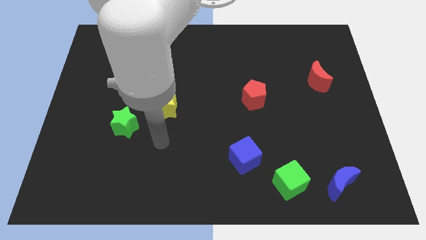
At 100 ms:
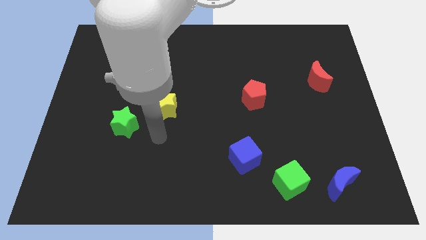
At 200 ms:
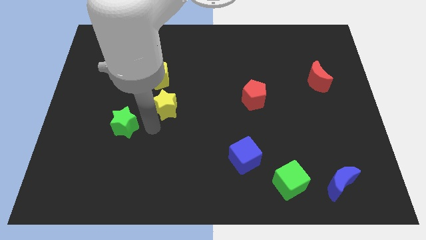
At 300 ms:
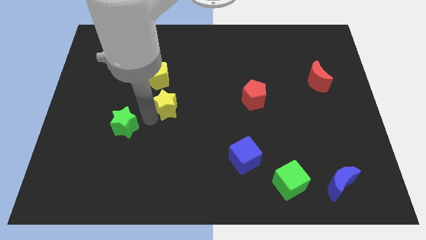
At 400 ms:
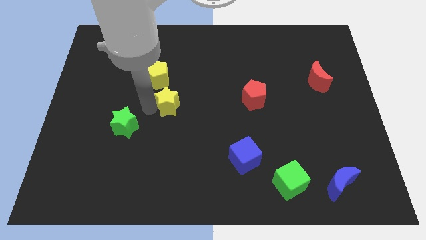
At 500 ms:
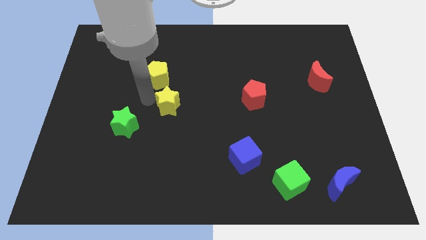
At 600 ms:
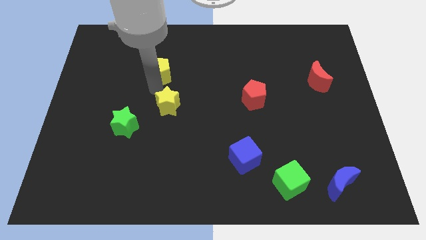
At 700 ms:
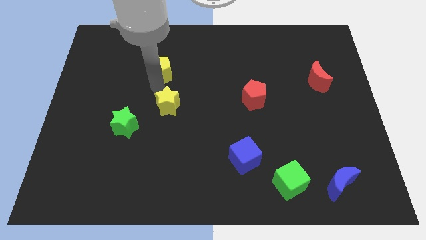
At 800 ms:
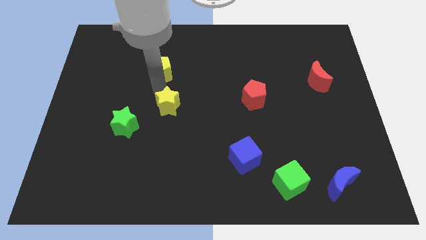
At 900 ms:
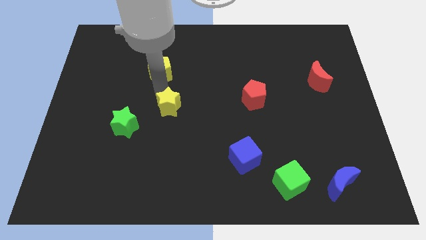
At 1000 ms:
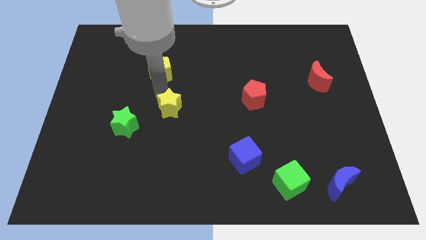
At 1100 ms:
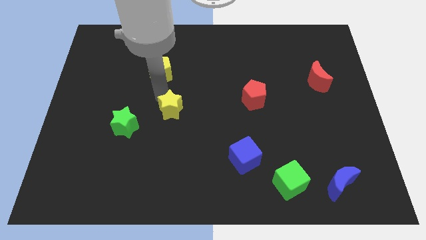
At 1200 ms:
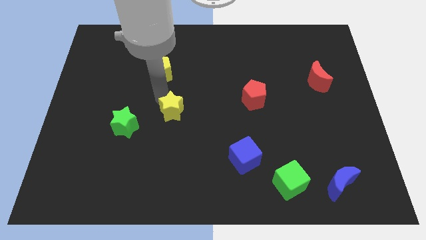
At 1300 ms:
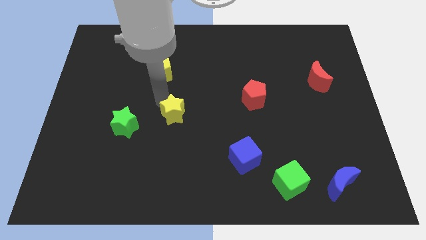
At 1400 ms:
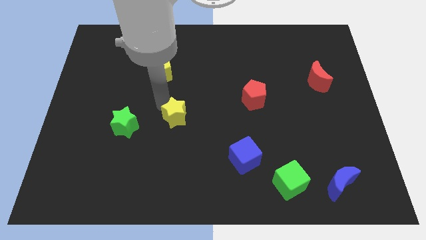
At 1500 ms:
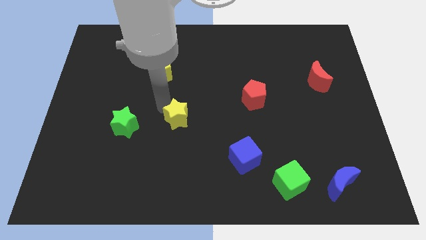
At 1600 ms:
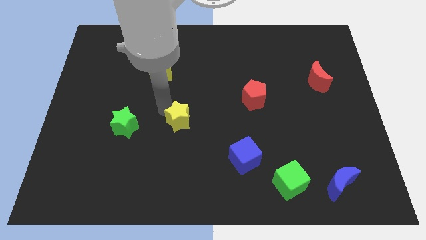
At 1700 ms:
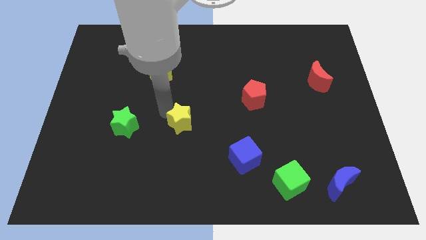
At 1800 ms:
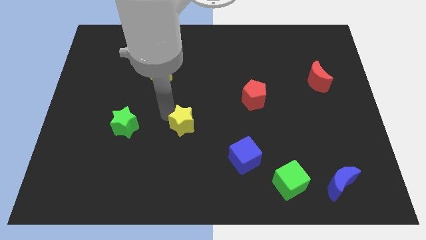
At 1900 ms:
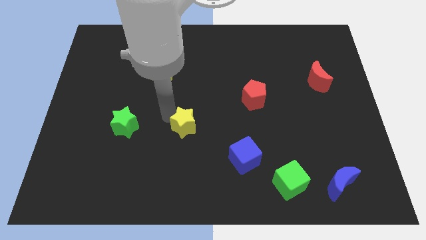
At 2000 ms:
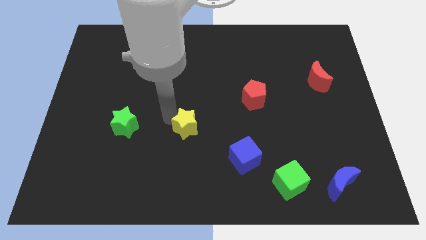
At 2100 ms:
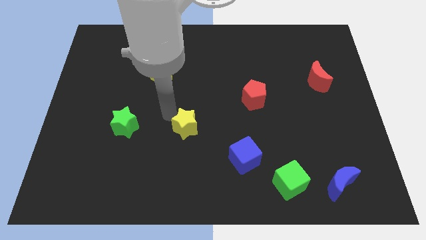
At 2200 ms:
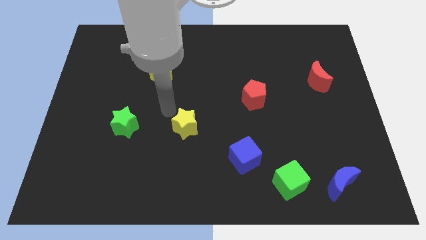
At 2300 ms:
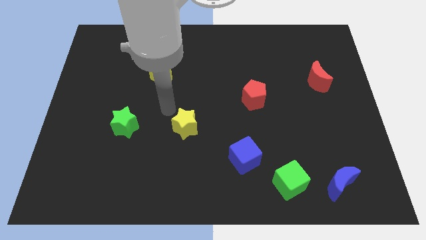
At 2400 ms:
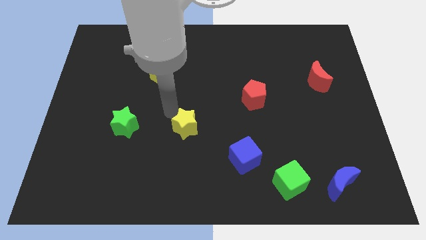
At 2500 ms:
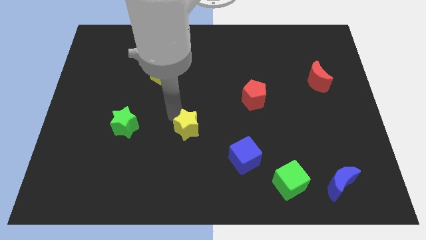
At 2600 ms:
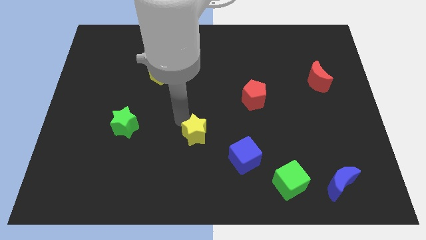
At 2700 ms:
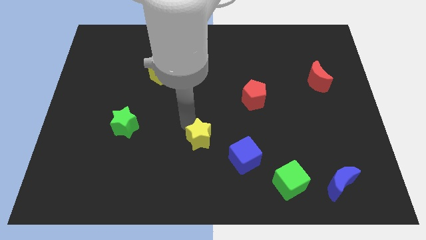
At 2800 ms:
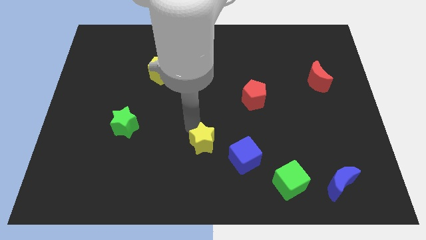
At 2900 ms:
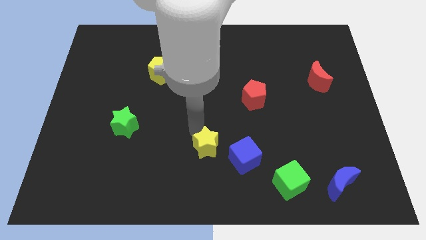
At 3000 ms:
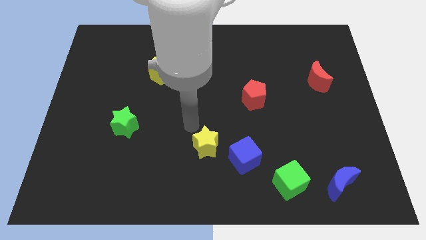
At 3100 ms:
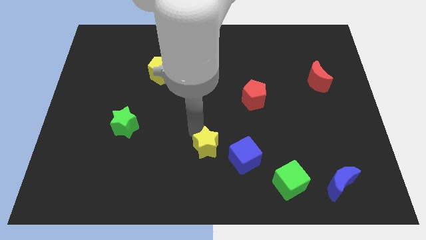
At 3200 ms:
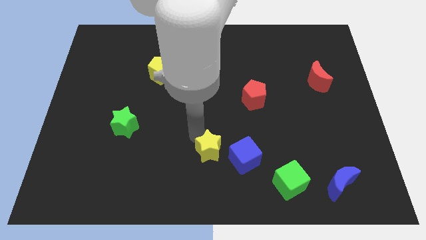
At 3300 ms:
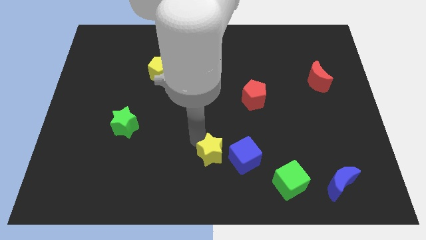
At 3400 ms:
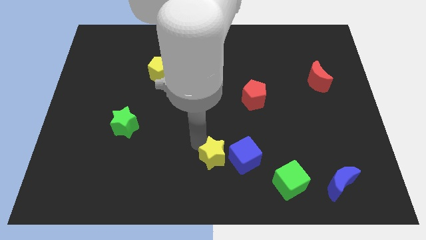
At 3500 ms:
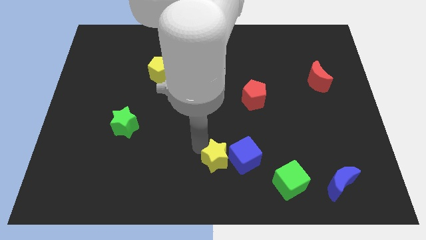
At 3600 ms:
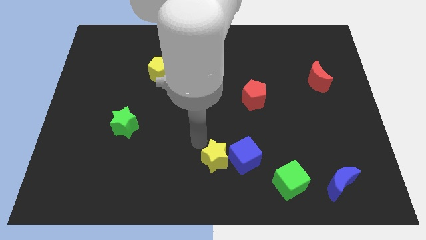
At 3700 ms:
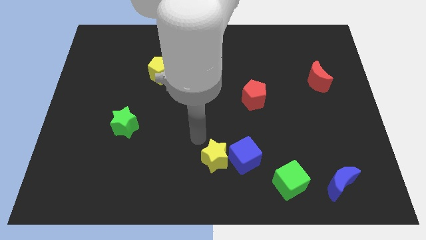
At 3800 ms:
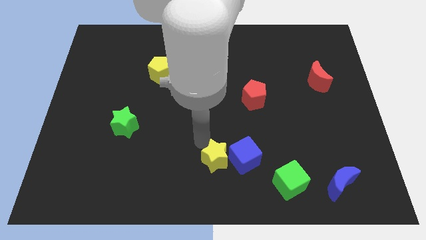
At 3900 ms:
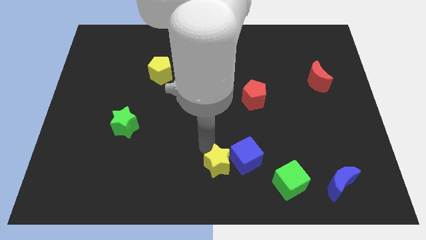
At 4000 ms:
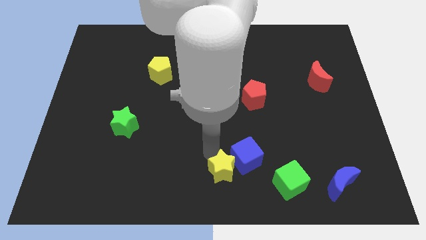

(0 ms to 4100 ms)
put the yellow star left of the green cube

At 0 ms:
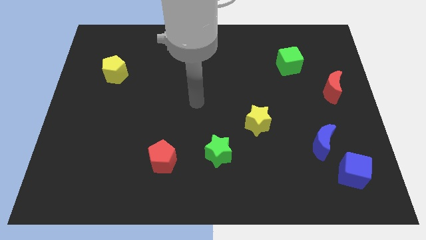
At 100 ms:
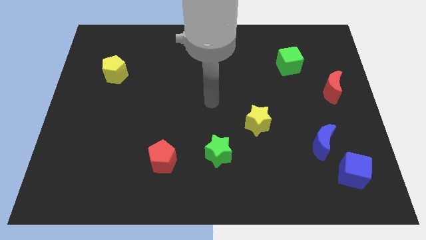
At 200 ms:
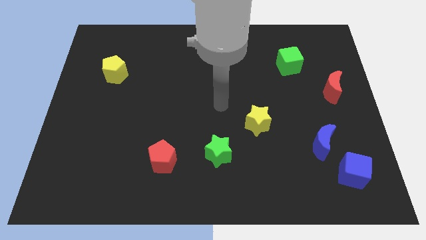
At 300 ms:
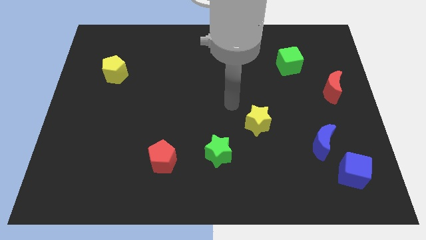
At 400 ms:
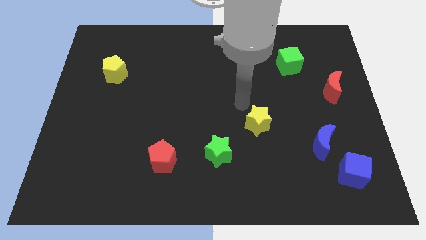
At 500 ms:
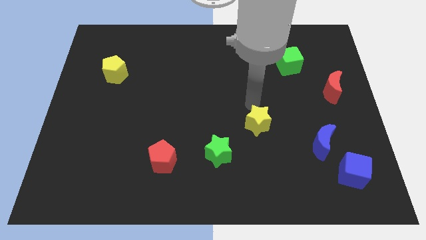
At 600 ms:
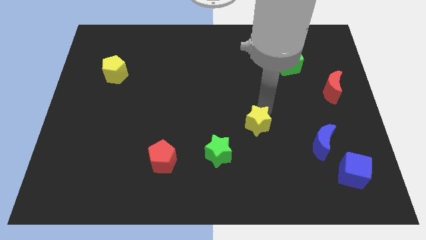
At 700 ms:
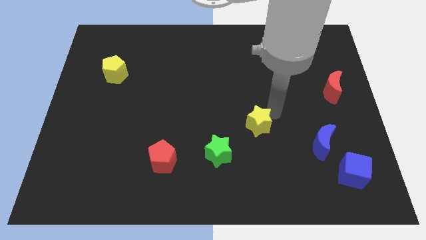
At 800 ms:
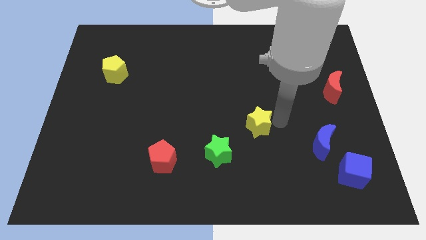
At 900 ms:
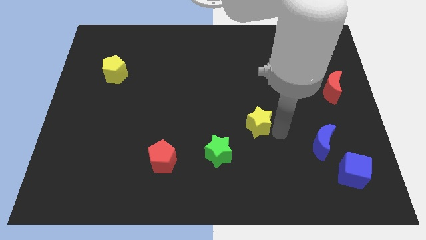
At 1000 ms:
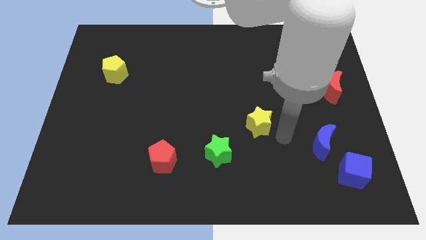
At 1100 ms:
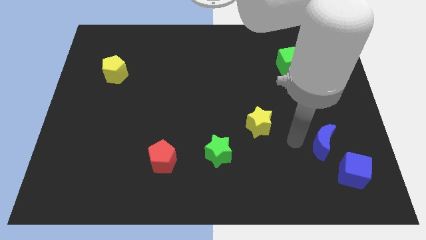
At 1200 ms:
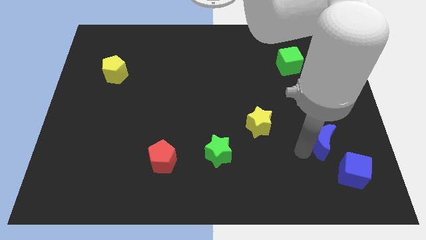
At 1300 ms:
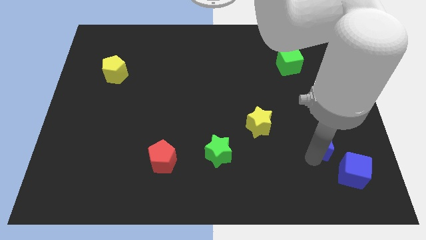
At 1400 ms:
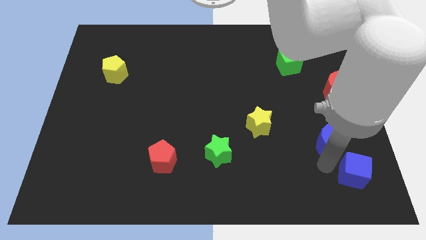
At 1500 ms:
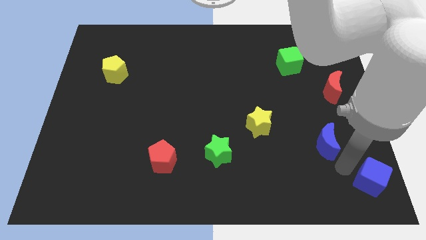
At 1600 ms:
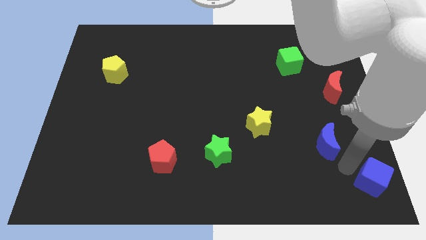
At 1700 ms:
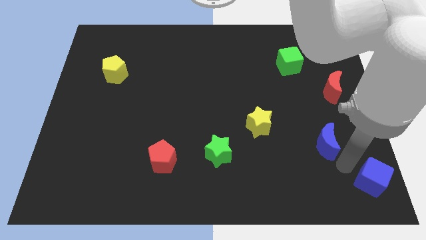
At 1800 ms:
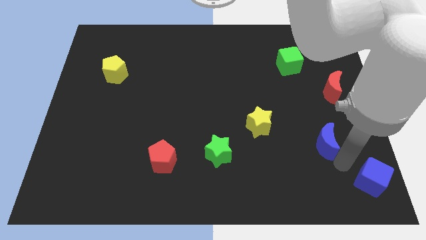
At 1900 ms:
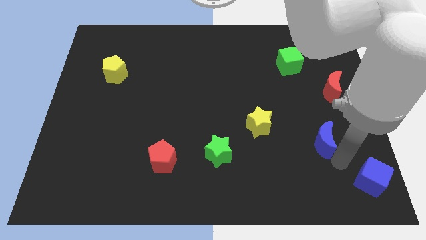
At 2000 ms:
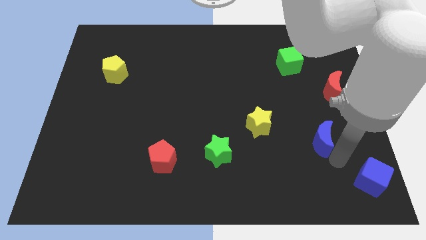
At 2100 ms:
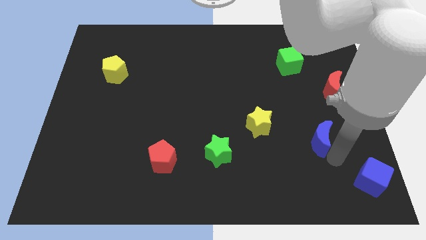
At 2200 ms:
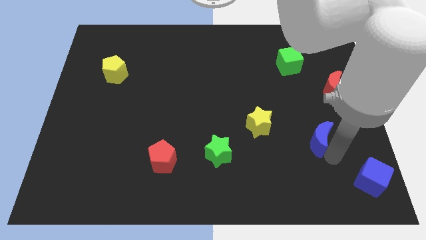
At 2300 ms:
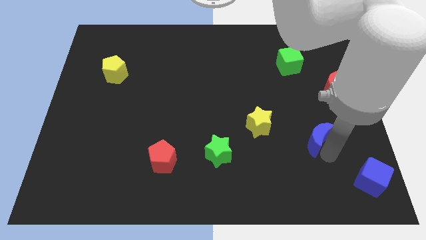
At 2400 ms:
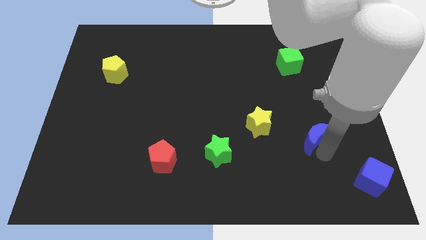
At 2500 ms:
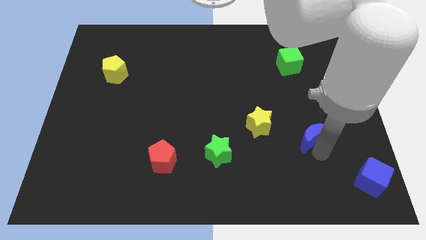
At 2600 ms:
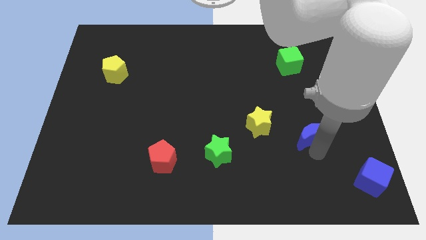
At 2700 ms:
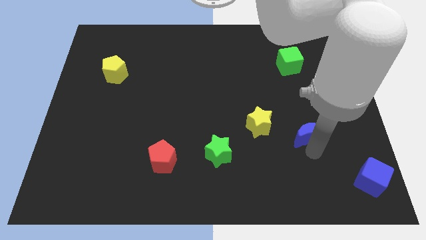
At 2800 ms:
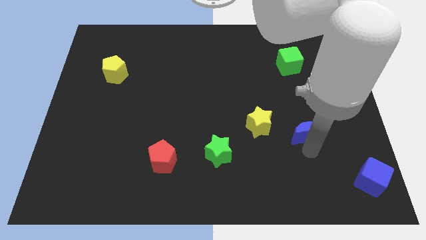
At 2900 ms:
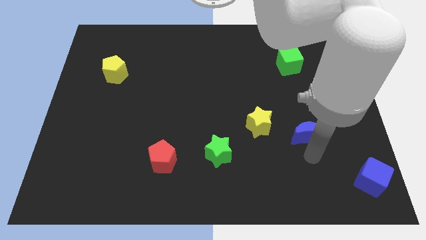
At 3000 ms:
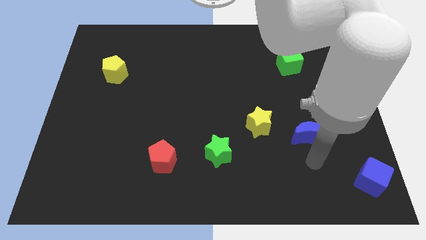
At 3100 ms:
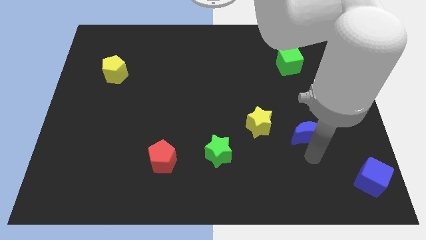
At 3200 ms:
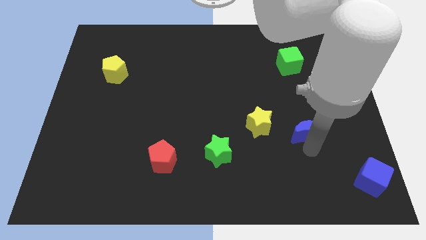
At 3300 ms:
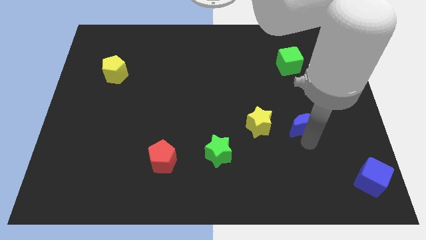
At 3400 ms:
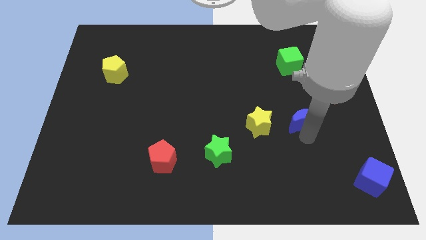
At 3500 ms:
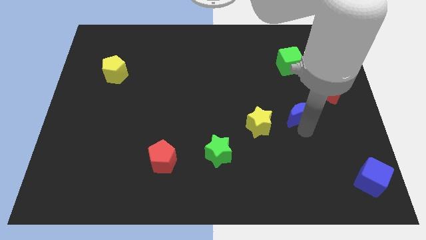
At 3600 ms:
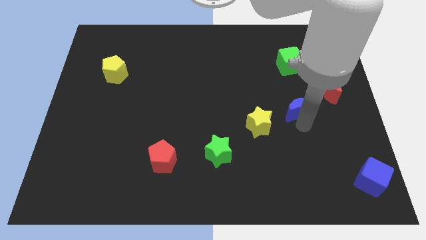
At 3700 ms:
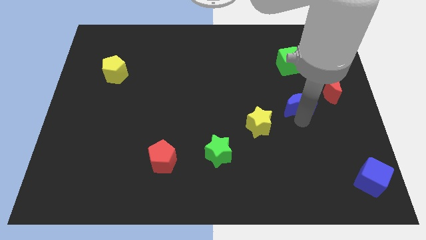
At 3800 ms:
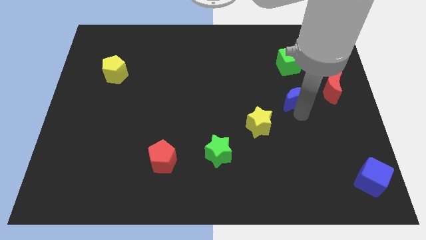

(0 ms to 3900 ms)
move the blue moon to the left of the red moon
